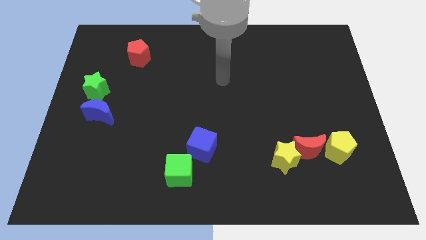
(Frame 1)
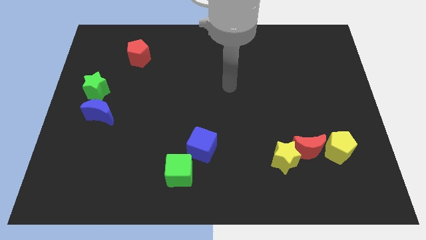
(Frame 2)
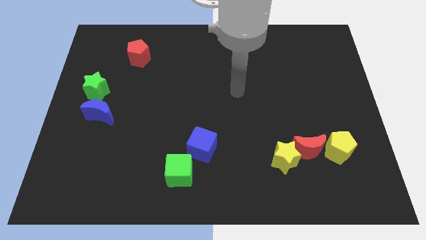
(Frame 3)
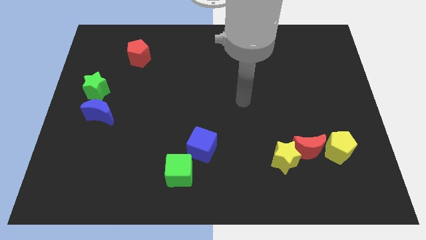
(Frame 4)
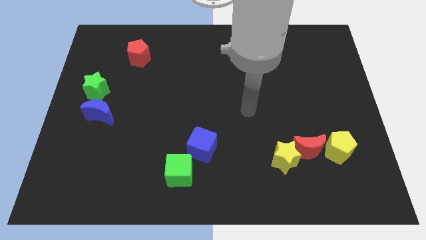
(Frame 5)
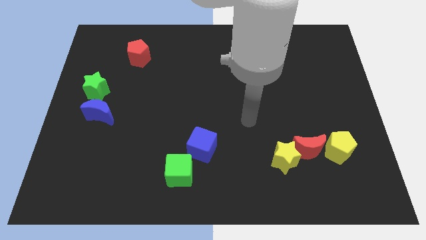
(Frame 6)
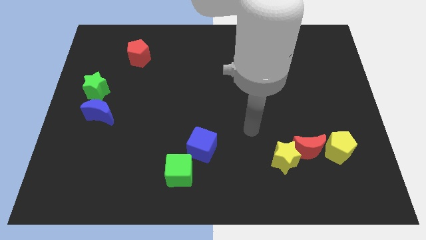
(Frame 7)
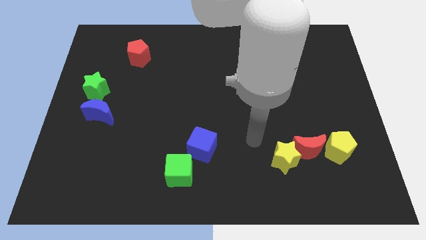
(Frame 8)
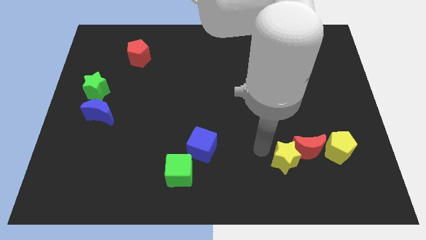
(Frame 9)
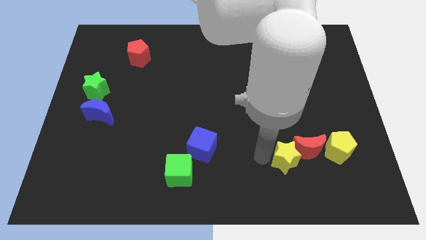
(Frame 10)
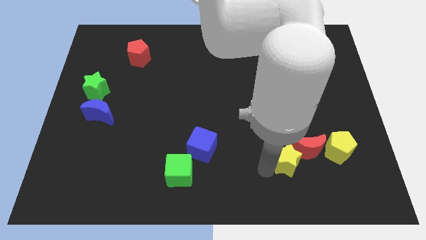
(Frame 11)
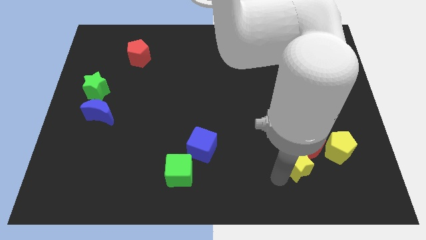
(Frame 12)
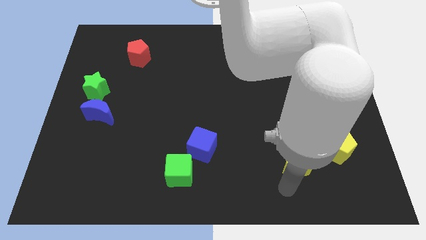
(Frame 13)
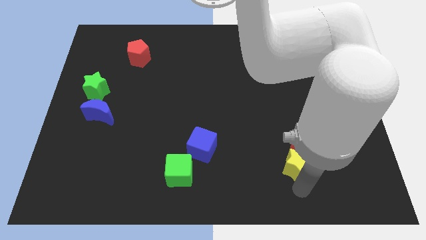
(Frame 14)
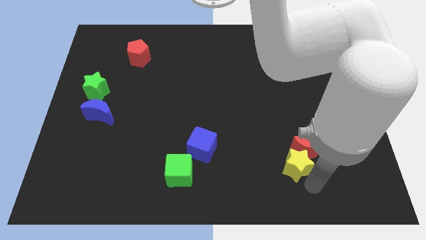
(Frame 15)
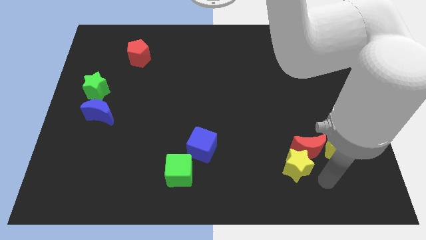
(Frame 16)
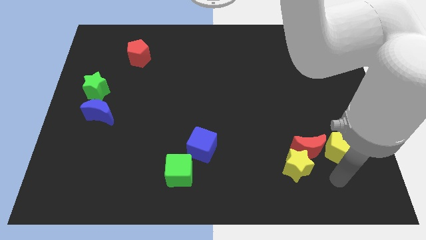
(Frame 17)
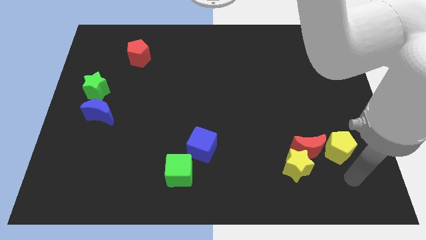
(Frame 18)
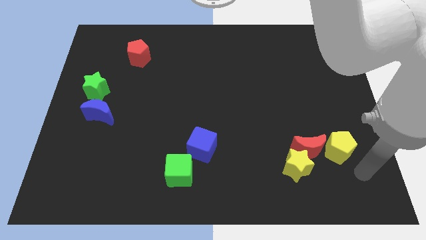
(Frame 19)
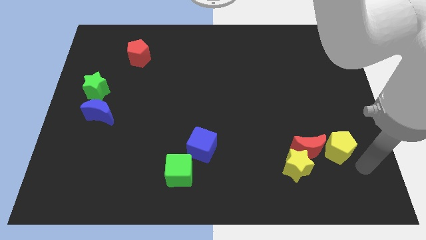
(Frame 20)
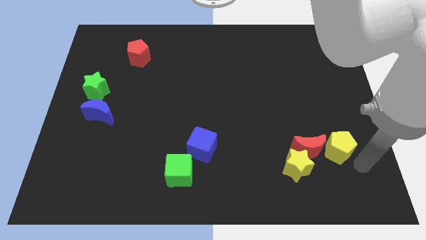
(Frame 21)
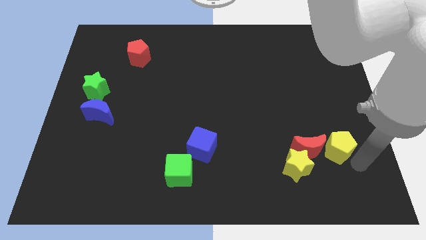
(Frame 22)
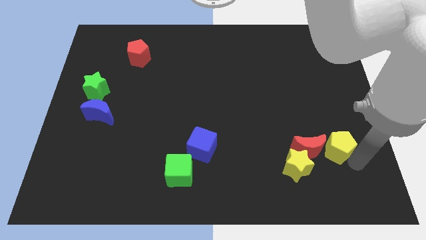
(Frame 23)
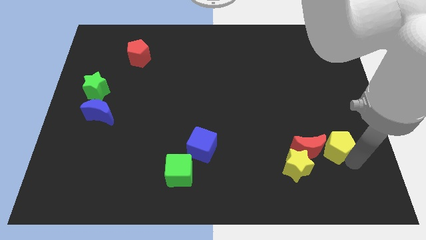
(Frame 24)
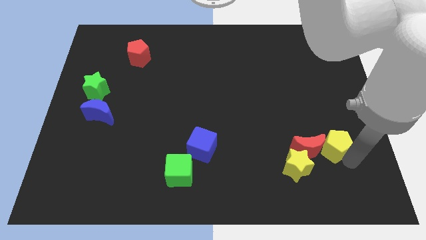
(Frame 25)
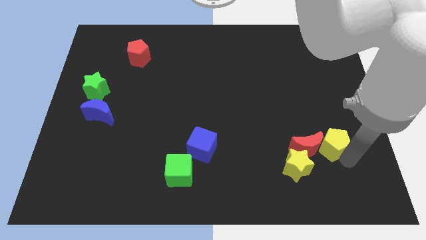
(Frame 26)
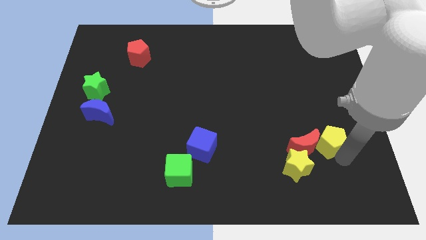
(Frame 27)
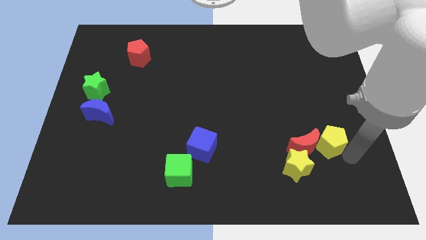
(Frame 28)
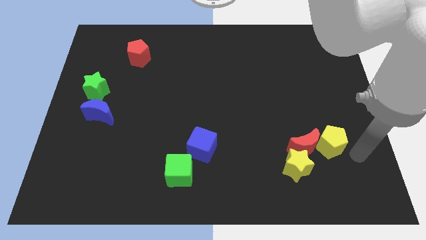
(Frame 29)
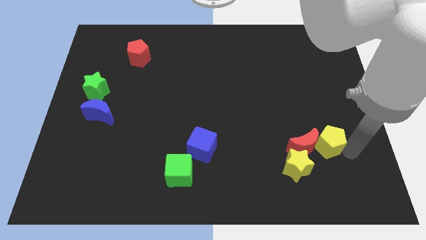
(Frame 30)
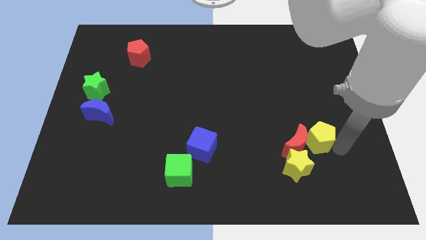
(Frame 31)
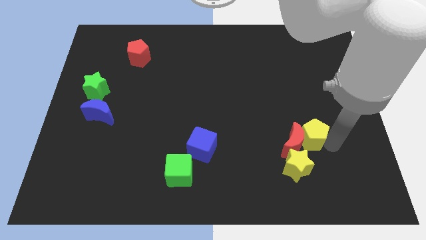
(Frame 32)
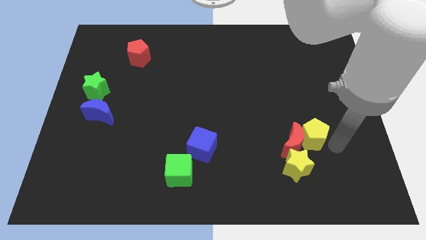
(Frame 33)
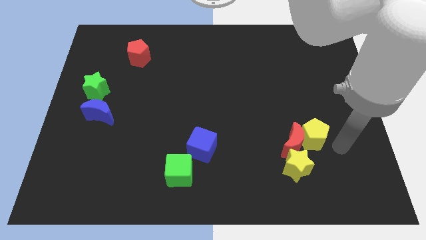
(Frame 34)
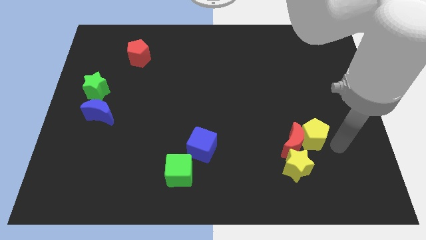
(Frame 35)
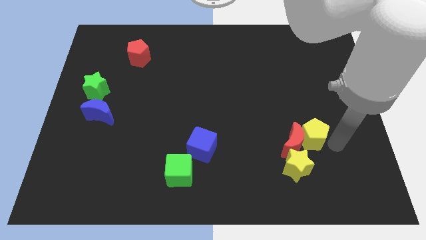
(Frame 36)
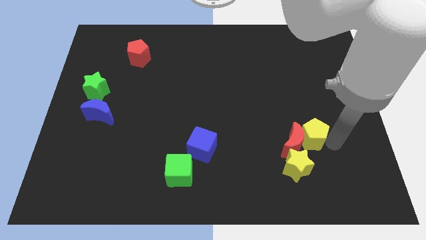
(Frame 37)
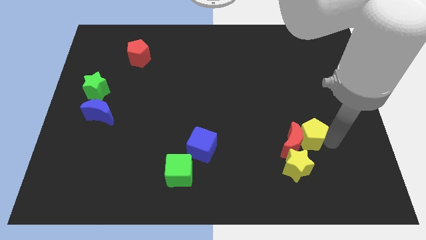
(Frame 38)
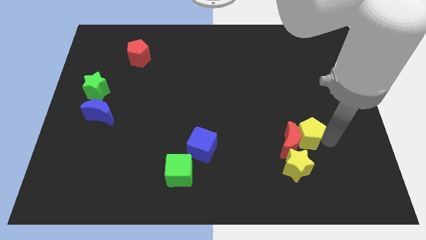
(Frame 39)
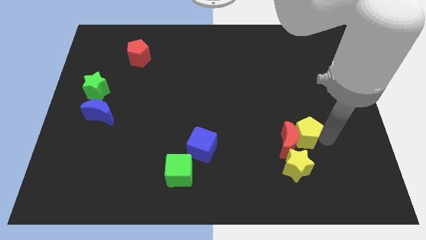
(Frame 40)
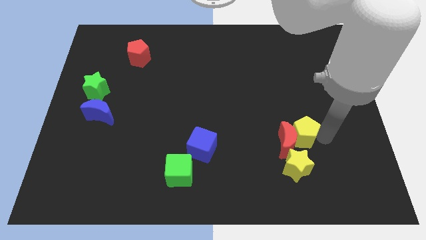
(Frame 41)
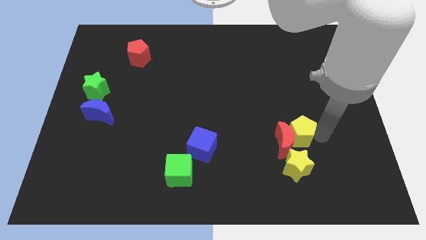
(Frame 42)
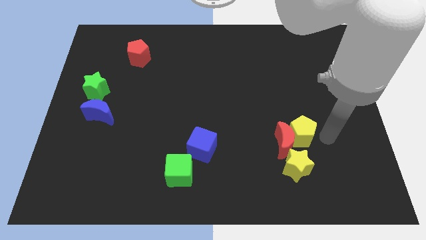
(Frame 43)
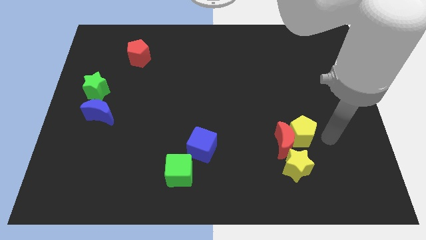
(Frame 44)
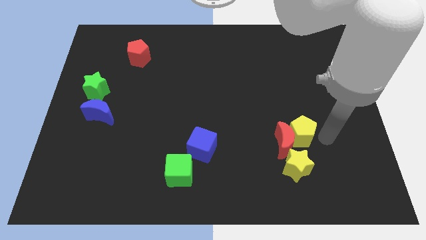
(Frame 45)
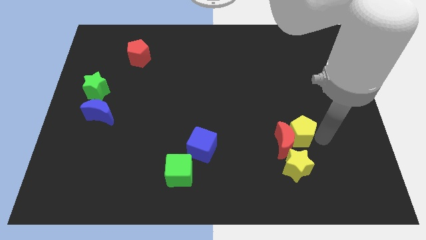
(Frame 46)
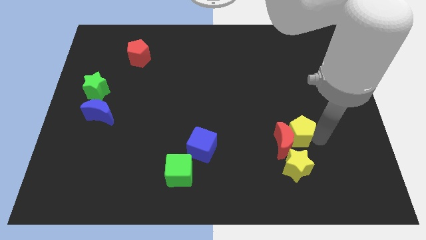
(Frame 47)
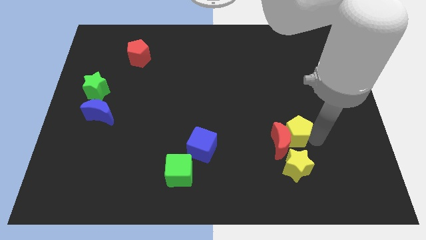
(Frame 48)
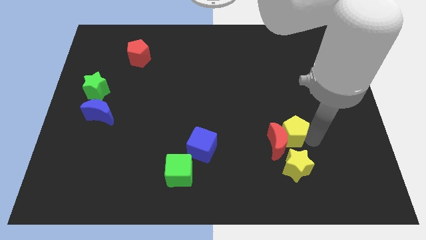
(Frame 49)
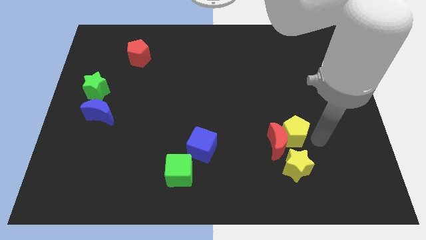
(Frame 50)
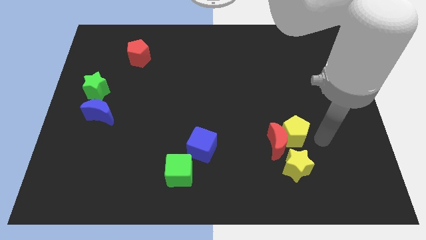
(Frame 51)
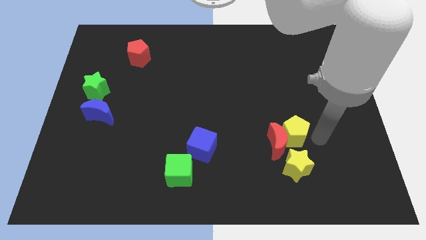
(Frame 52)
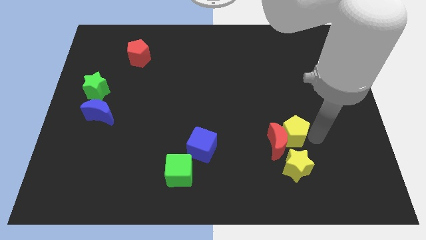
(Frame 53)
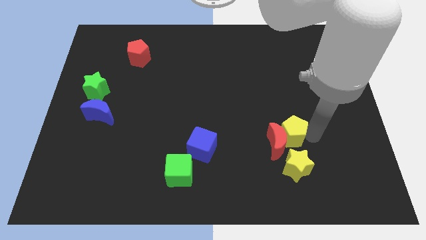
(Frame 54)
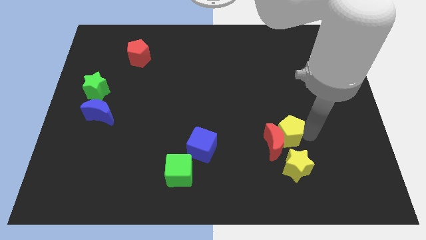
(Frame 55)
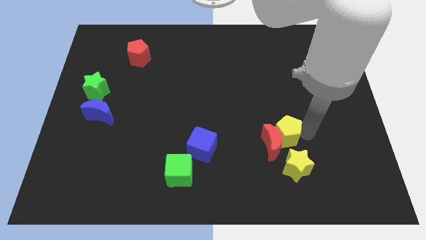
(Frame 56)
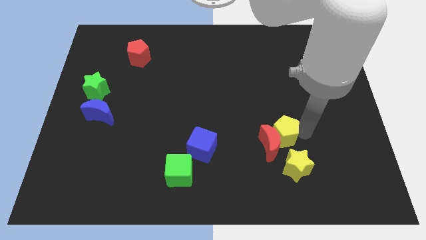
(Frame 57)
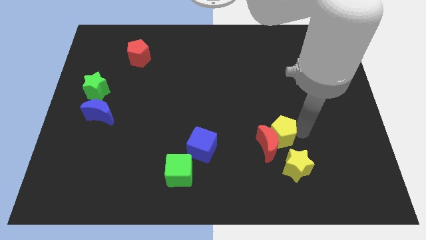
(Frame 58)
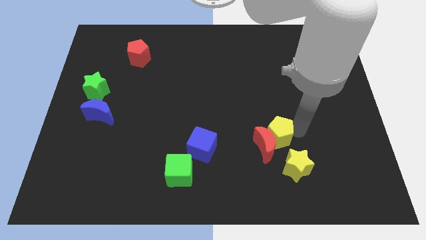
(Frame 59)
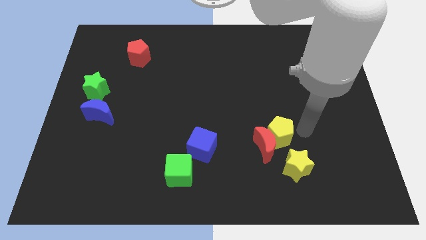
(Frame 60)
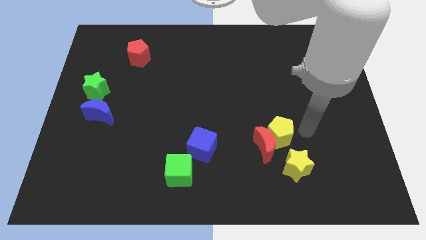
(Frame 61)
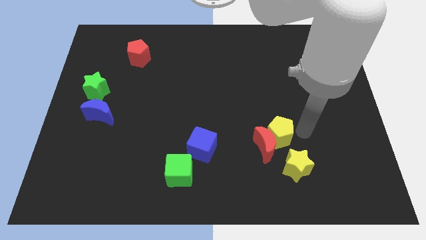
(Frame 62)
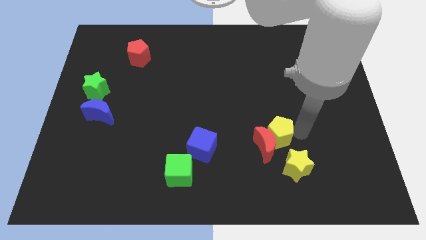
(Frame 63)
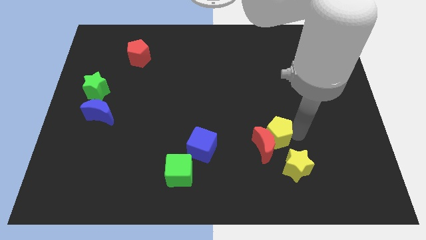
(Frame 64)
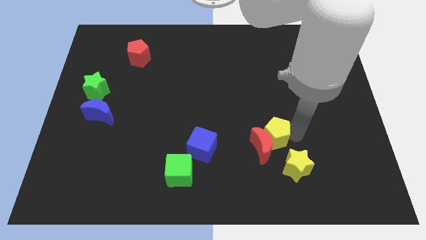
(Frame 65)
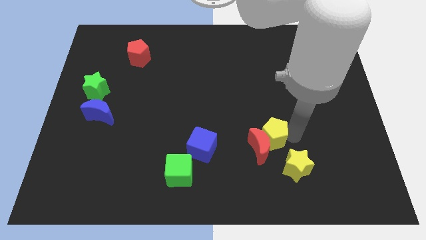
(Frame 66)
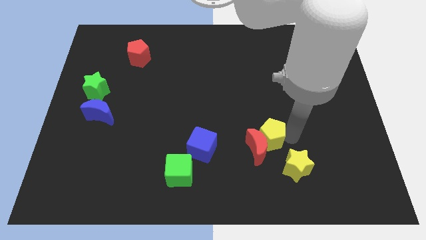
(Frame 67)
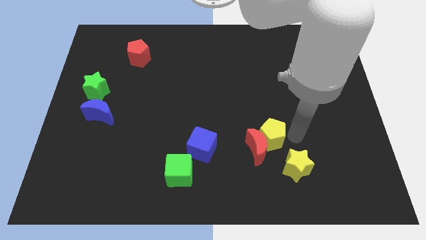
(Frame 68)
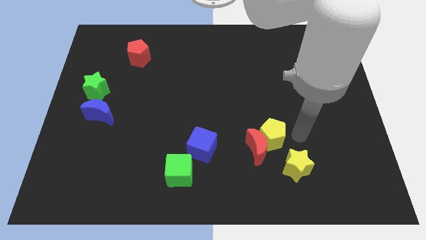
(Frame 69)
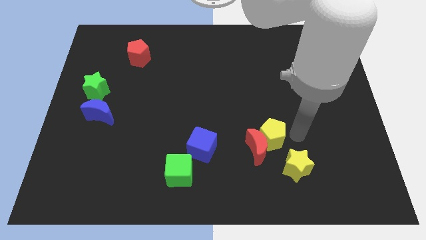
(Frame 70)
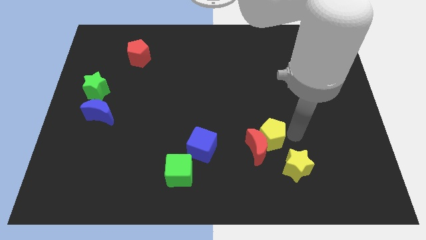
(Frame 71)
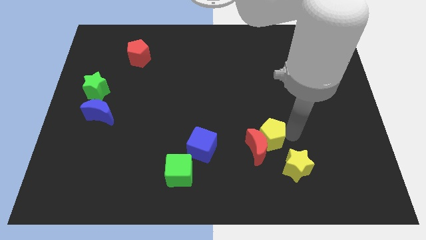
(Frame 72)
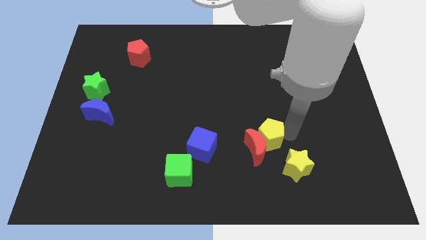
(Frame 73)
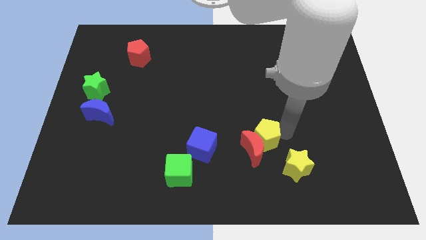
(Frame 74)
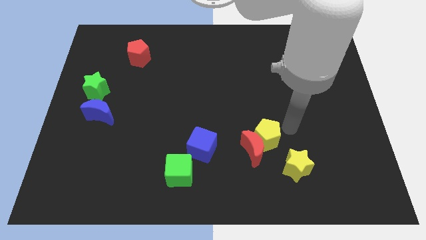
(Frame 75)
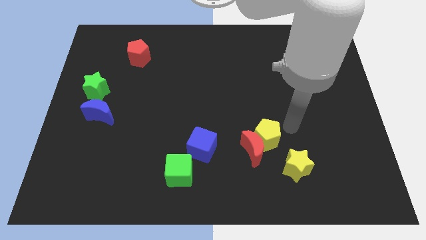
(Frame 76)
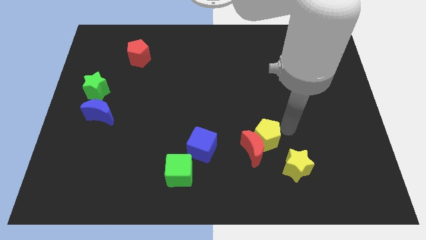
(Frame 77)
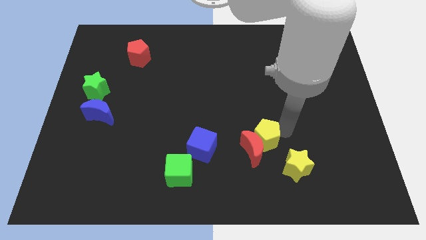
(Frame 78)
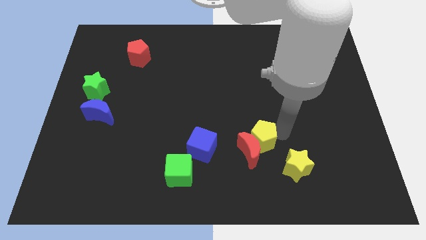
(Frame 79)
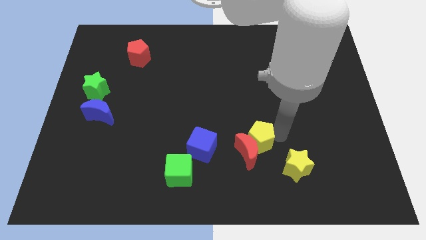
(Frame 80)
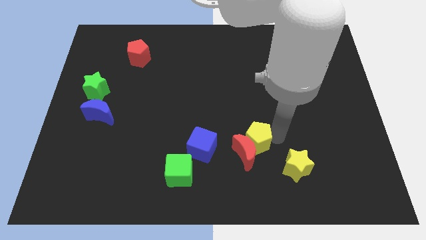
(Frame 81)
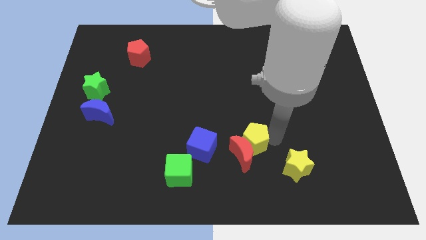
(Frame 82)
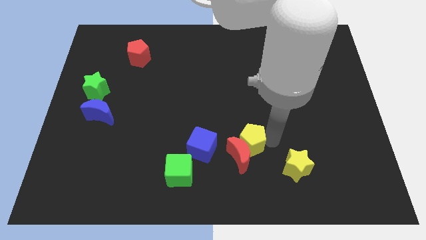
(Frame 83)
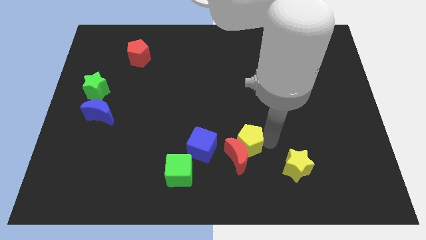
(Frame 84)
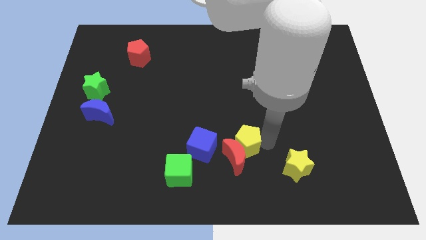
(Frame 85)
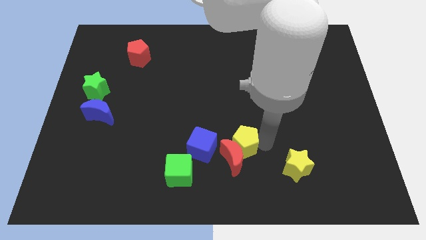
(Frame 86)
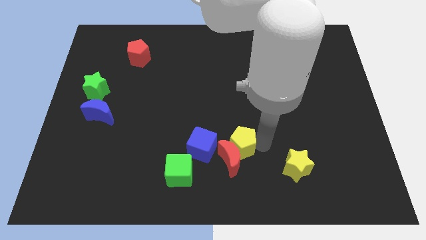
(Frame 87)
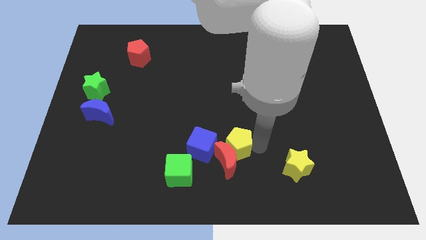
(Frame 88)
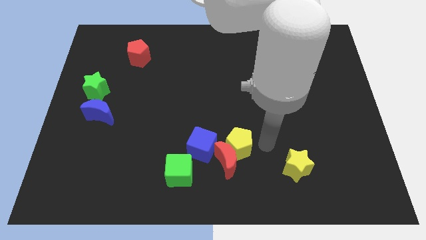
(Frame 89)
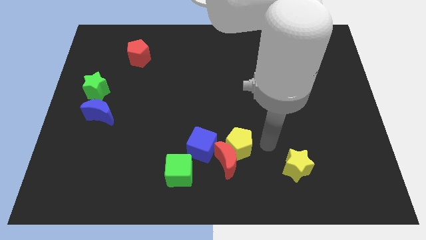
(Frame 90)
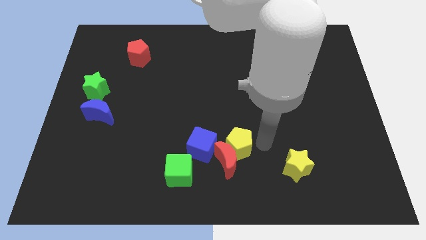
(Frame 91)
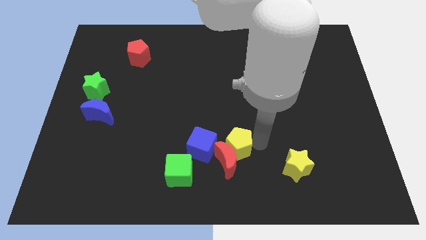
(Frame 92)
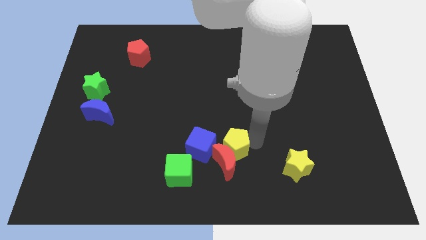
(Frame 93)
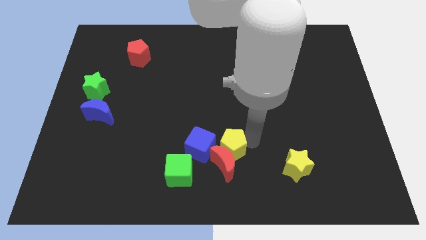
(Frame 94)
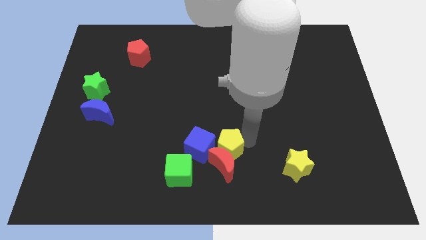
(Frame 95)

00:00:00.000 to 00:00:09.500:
put the yellow pentagon close to the blue cube
